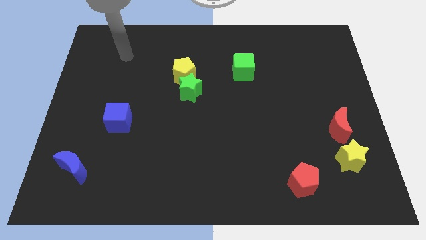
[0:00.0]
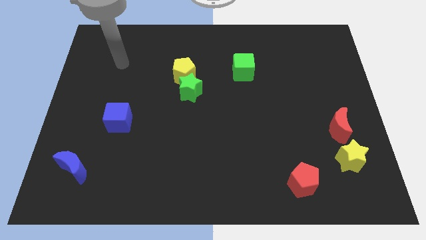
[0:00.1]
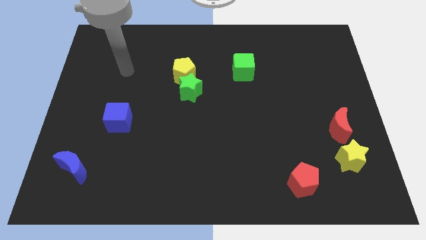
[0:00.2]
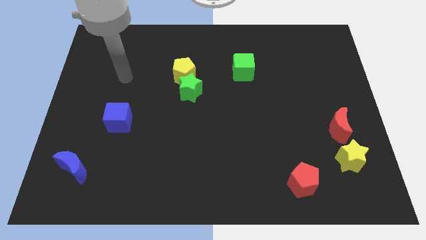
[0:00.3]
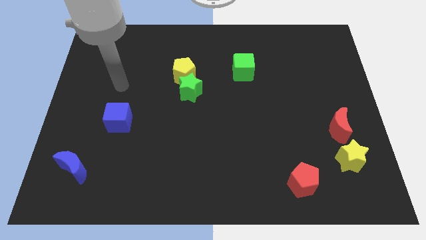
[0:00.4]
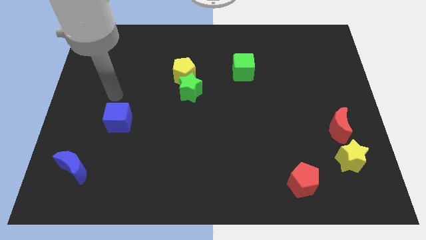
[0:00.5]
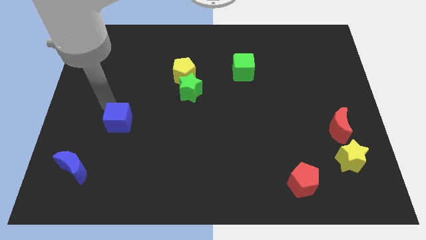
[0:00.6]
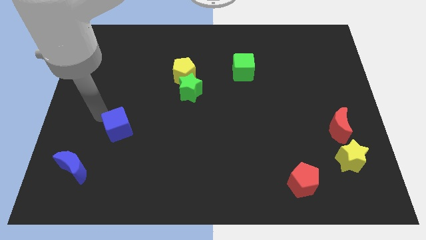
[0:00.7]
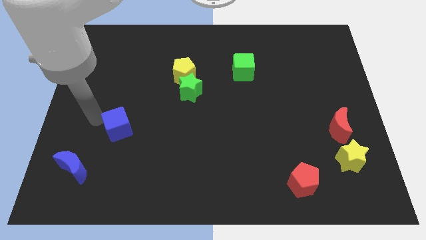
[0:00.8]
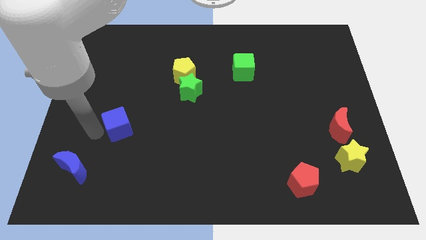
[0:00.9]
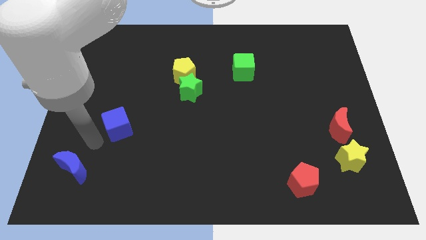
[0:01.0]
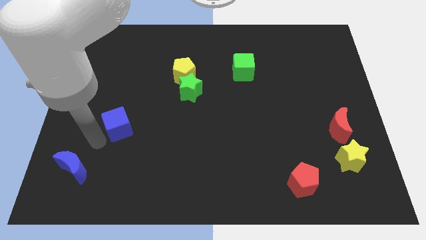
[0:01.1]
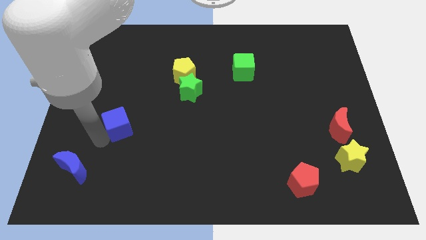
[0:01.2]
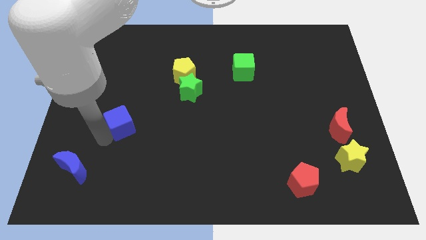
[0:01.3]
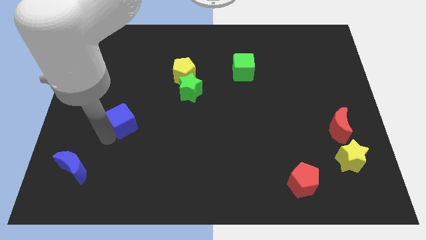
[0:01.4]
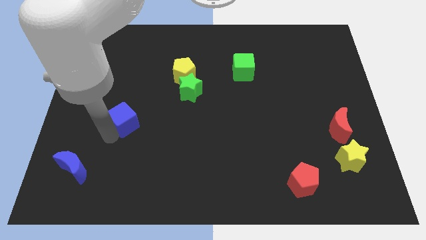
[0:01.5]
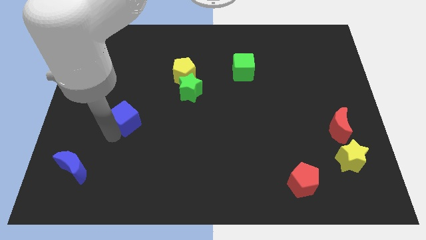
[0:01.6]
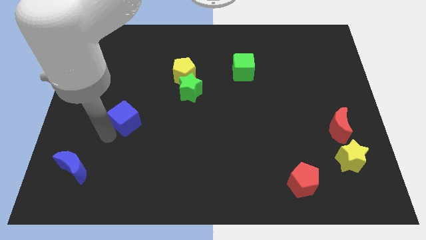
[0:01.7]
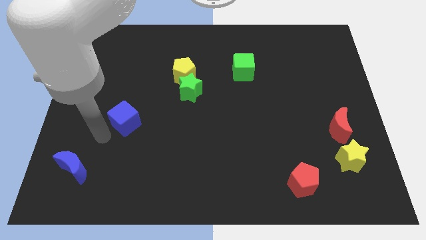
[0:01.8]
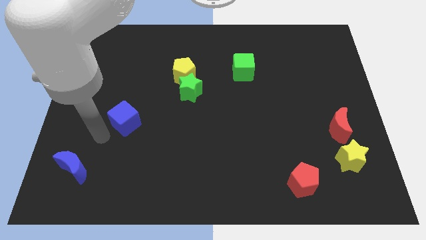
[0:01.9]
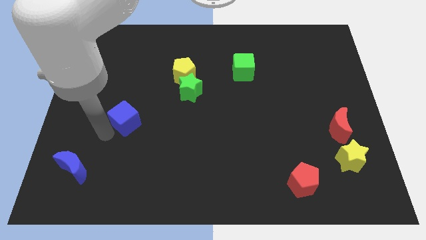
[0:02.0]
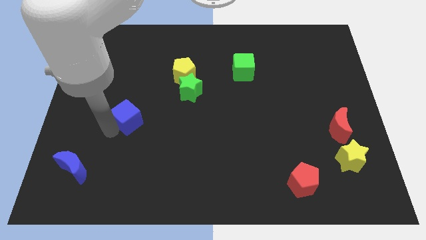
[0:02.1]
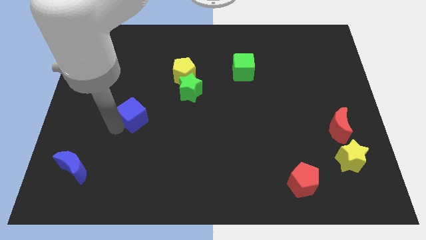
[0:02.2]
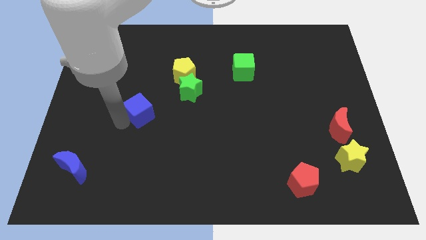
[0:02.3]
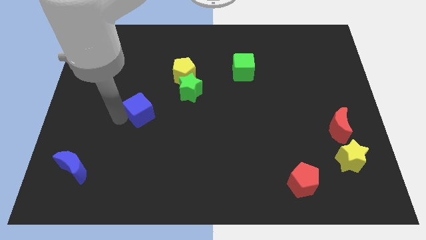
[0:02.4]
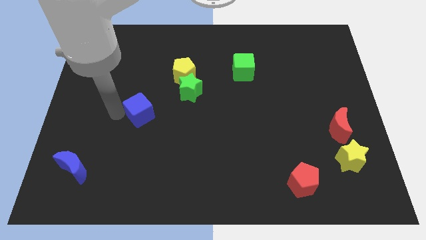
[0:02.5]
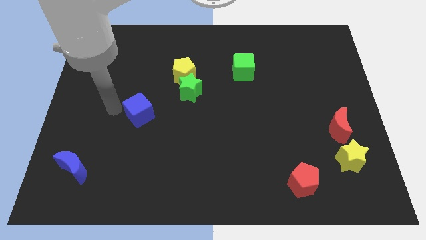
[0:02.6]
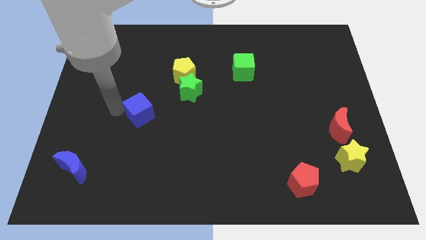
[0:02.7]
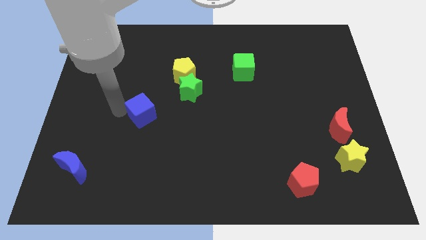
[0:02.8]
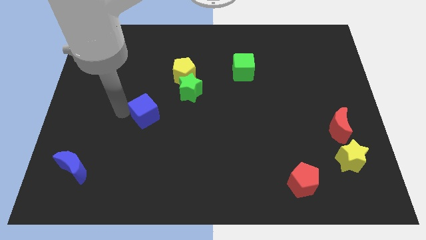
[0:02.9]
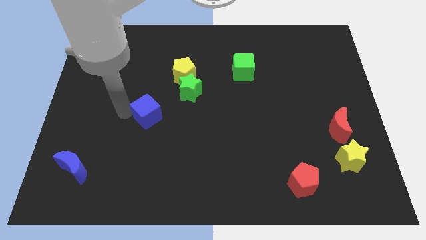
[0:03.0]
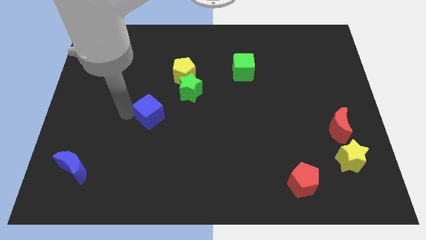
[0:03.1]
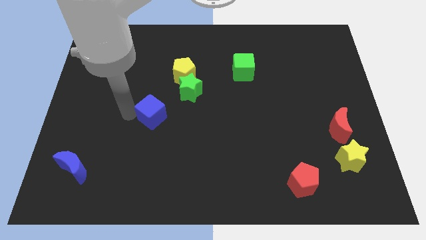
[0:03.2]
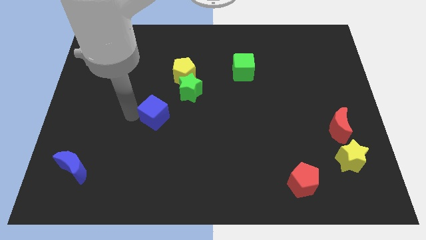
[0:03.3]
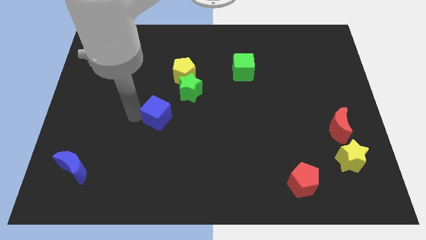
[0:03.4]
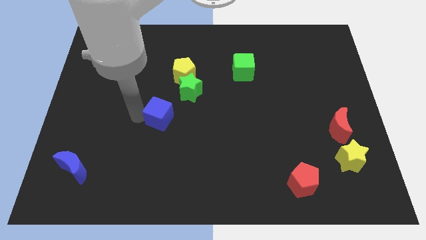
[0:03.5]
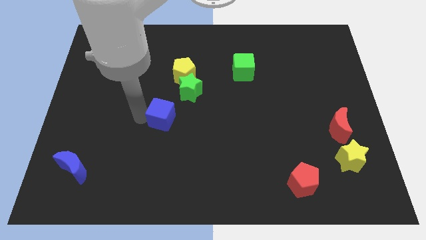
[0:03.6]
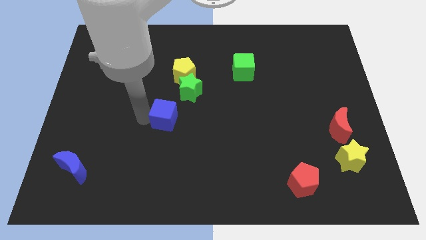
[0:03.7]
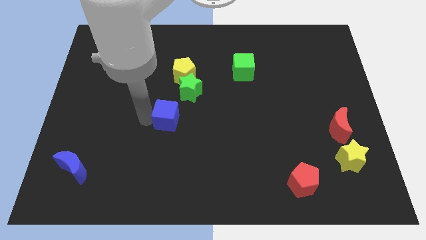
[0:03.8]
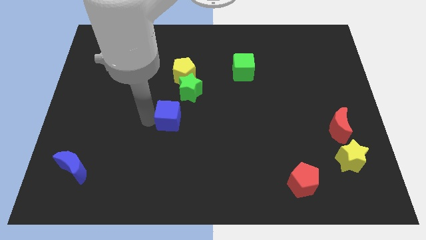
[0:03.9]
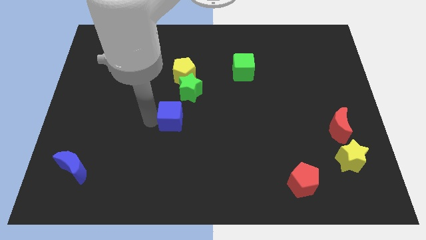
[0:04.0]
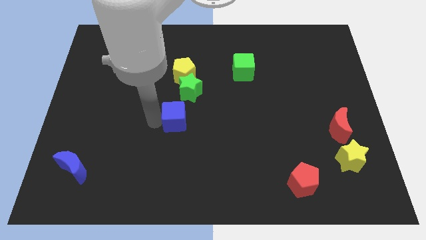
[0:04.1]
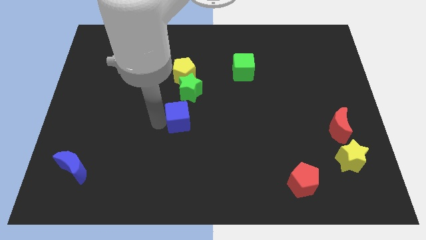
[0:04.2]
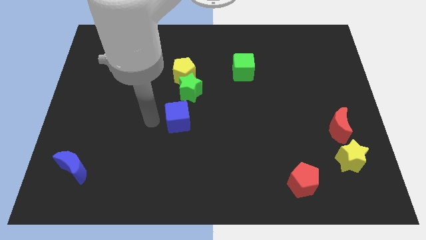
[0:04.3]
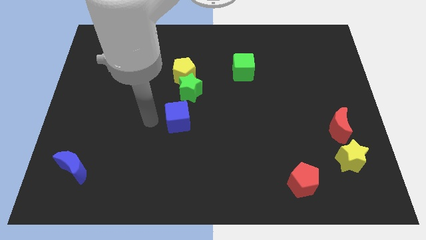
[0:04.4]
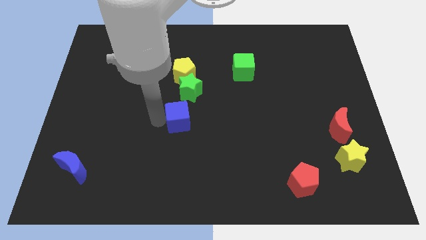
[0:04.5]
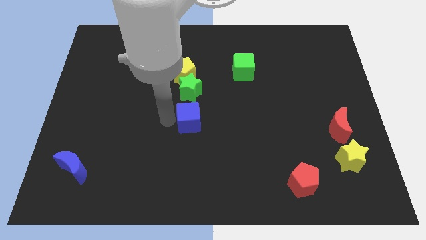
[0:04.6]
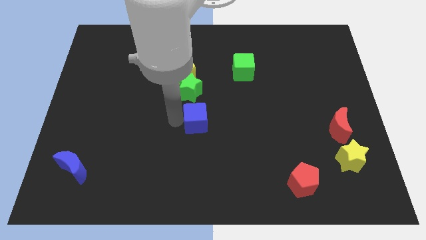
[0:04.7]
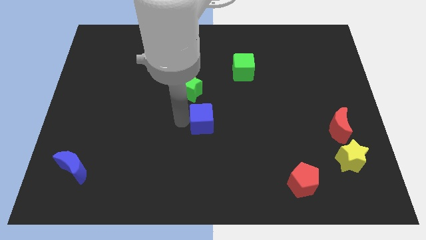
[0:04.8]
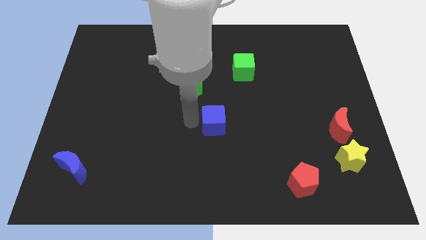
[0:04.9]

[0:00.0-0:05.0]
push the blue cube right

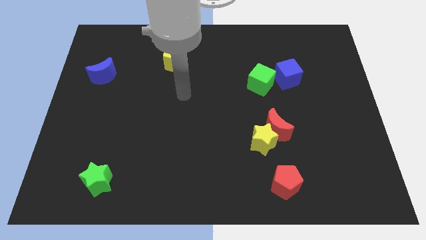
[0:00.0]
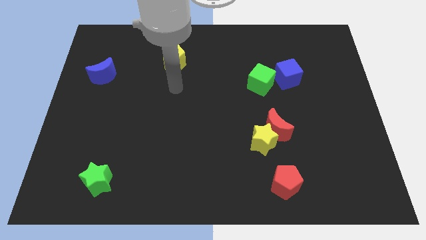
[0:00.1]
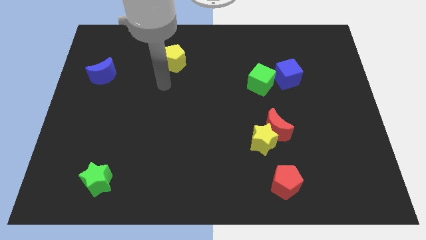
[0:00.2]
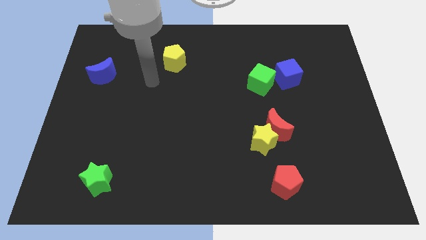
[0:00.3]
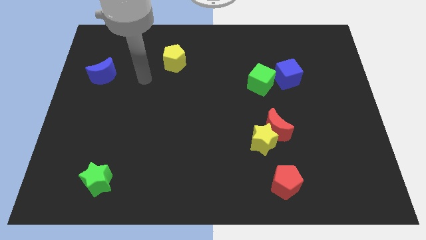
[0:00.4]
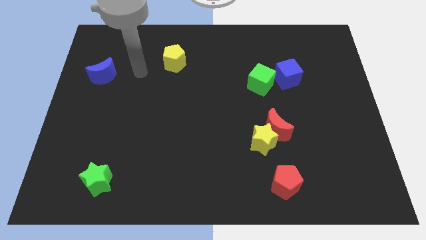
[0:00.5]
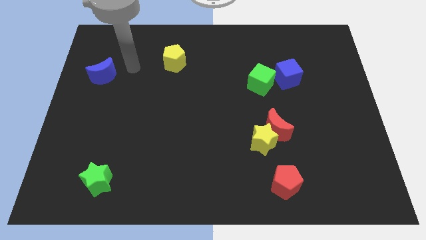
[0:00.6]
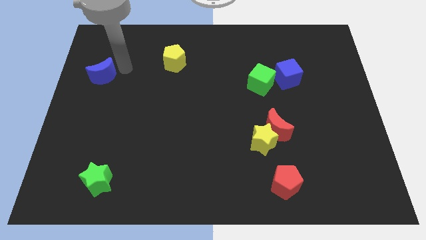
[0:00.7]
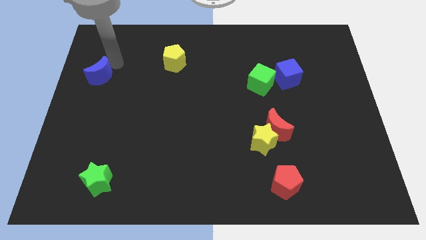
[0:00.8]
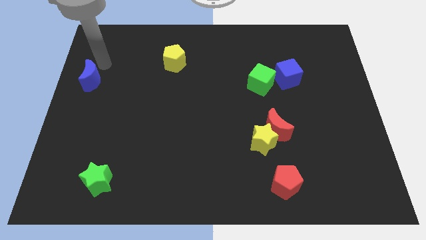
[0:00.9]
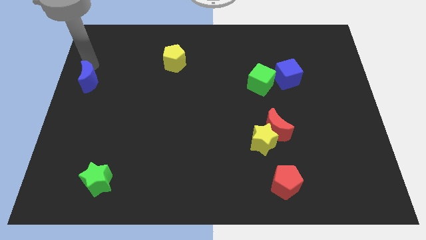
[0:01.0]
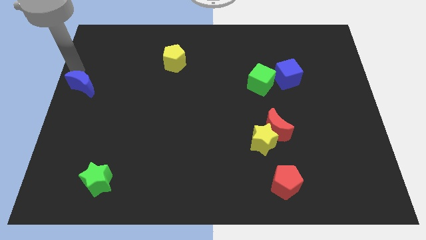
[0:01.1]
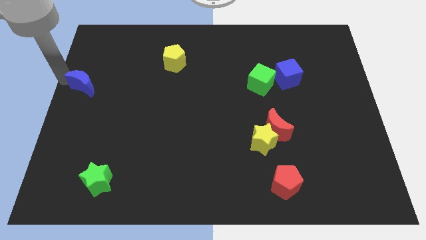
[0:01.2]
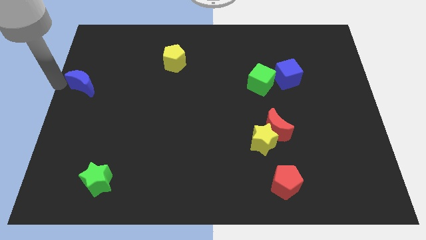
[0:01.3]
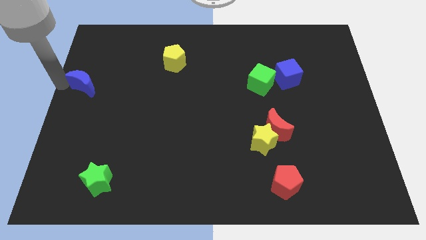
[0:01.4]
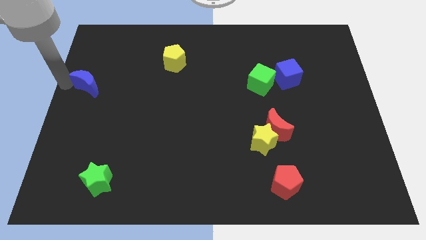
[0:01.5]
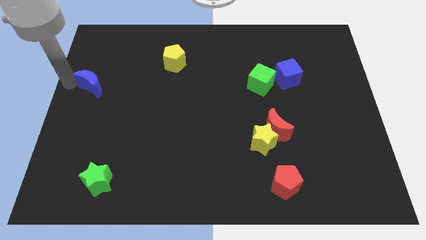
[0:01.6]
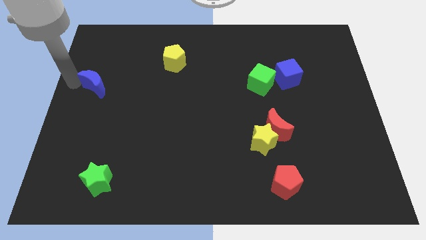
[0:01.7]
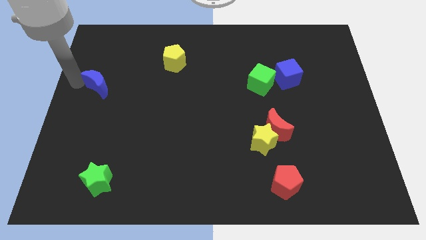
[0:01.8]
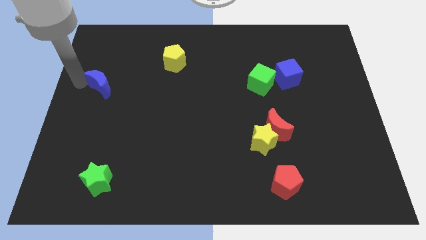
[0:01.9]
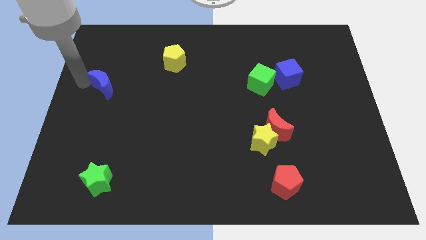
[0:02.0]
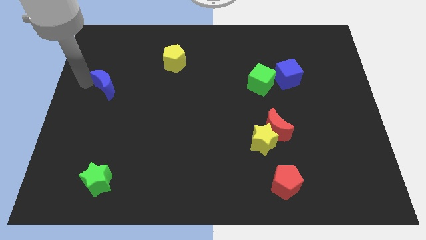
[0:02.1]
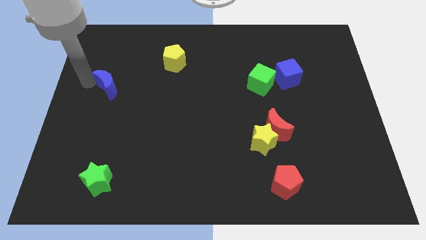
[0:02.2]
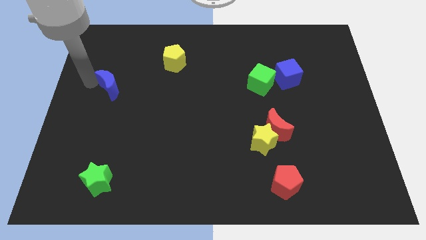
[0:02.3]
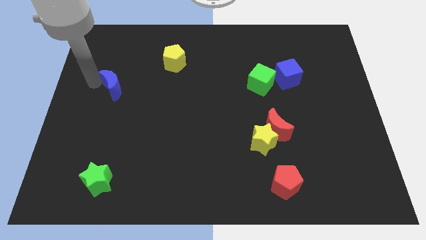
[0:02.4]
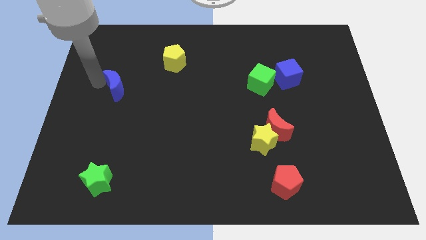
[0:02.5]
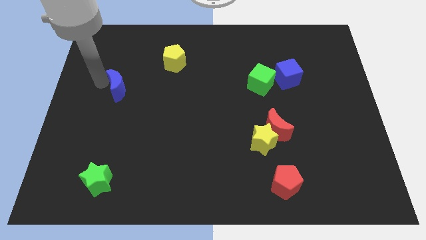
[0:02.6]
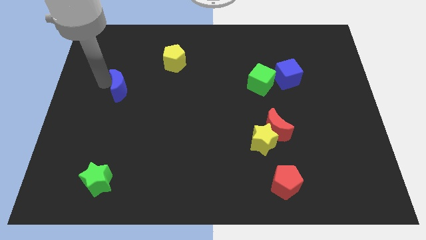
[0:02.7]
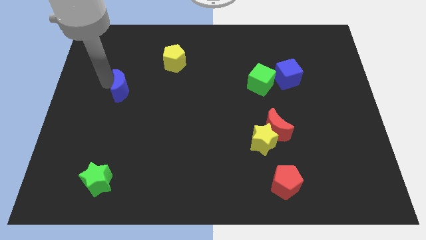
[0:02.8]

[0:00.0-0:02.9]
slightly slide the blue moon downwards and then right
